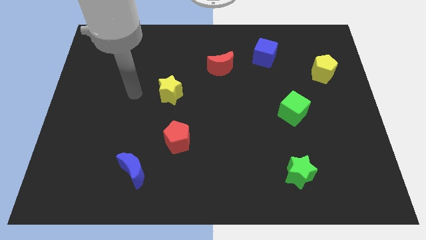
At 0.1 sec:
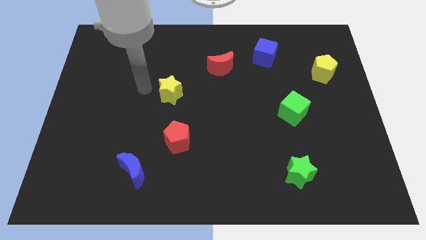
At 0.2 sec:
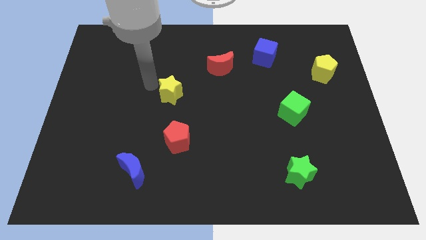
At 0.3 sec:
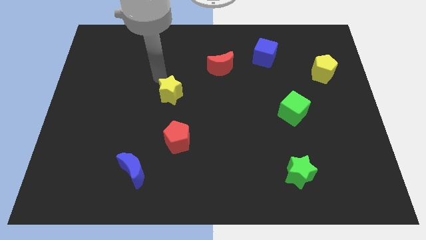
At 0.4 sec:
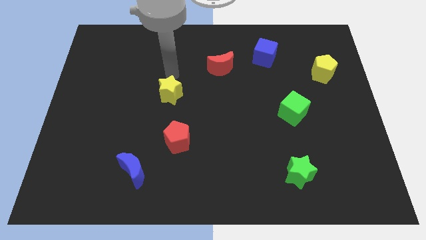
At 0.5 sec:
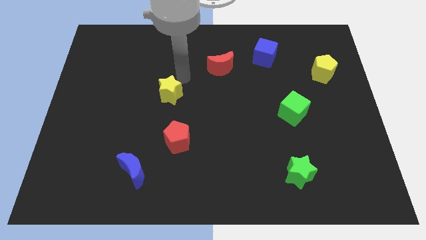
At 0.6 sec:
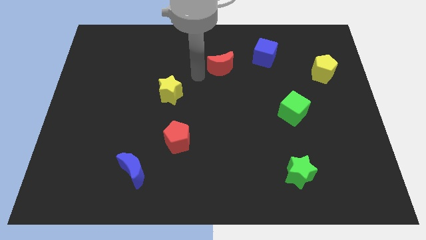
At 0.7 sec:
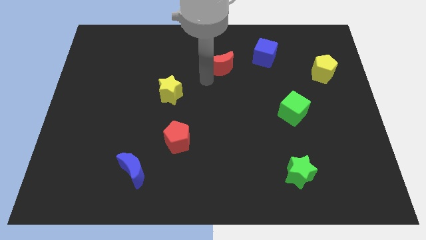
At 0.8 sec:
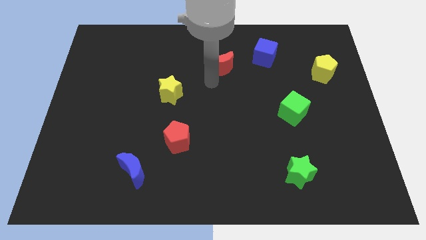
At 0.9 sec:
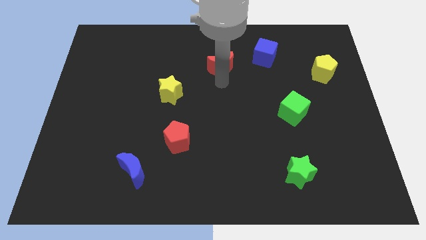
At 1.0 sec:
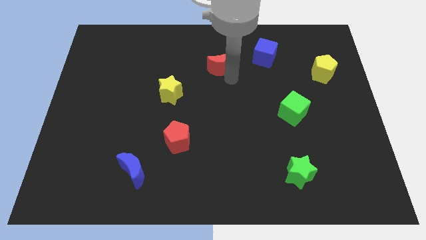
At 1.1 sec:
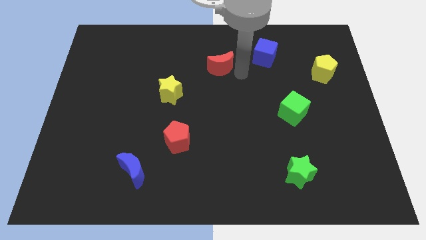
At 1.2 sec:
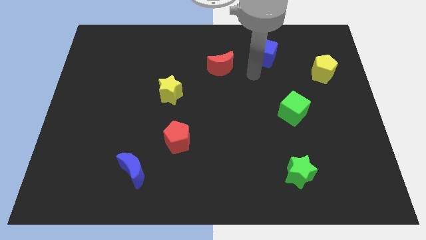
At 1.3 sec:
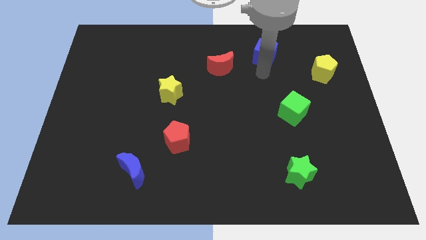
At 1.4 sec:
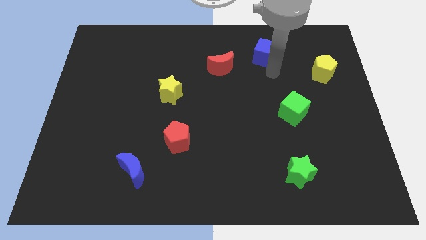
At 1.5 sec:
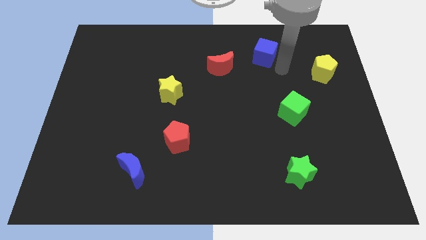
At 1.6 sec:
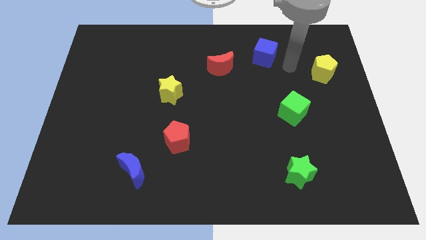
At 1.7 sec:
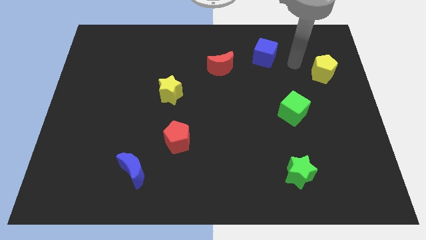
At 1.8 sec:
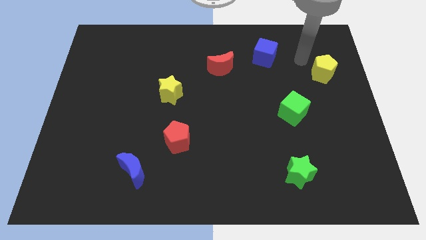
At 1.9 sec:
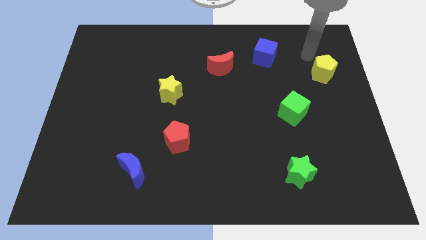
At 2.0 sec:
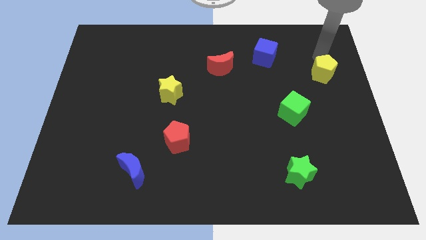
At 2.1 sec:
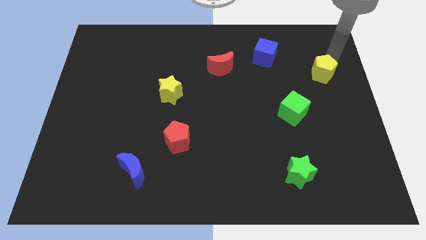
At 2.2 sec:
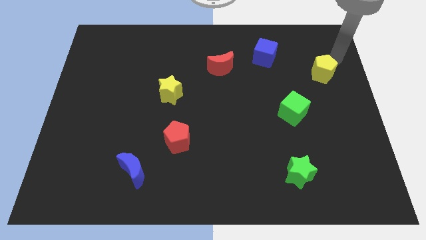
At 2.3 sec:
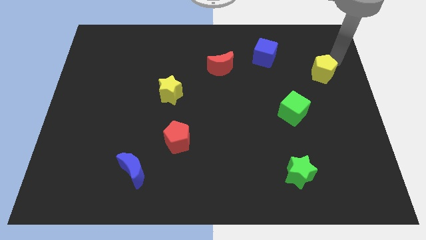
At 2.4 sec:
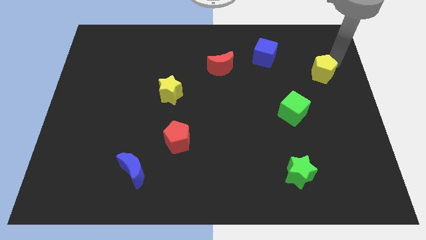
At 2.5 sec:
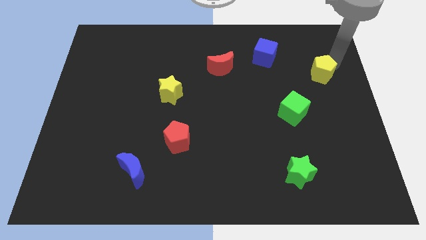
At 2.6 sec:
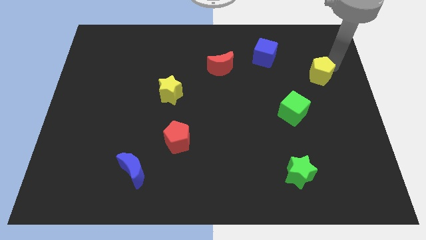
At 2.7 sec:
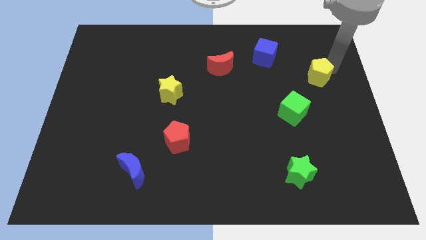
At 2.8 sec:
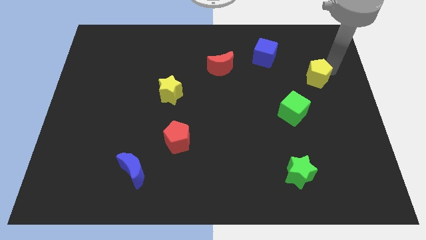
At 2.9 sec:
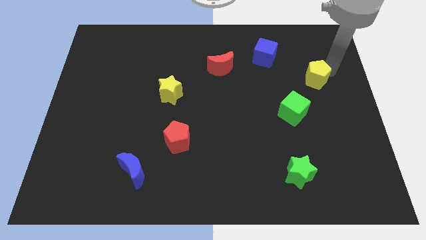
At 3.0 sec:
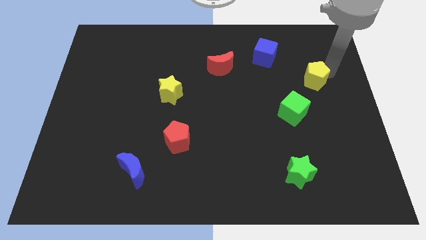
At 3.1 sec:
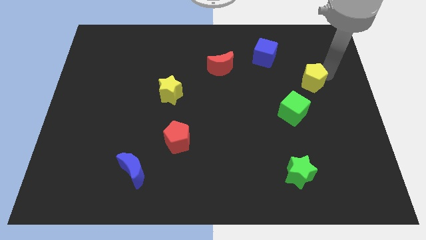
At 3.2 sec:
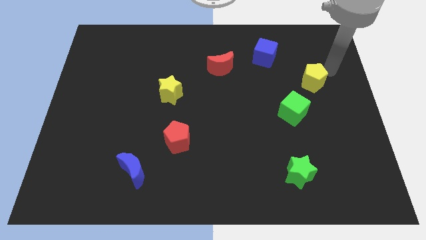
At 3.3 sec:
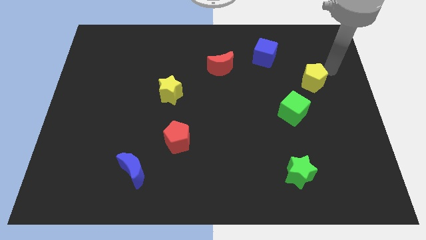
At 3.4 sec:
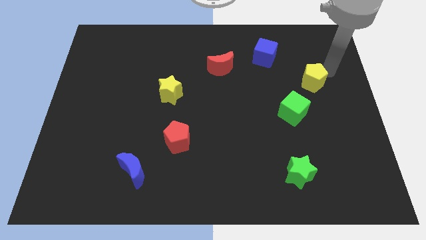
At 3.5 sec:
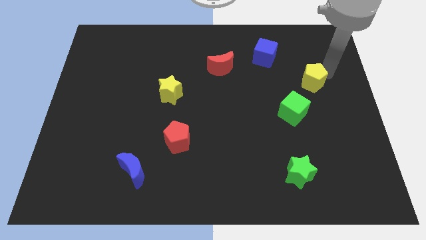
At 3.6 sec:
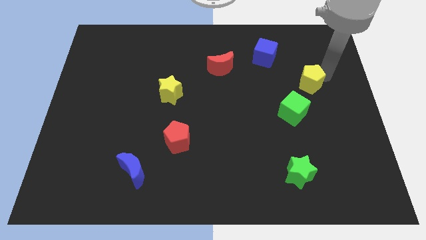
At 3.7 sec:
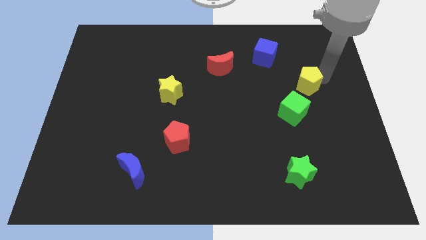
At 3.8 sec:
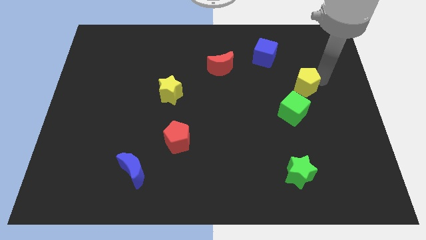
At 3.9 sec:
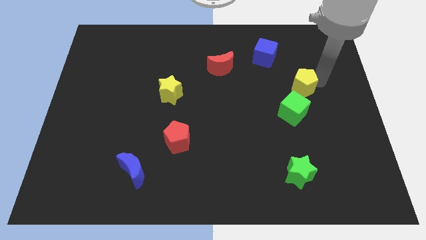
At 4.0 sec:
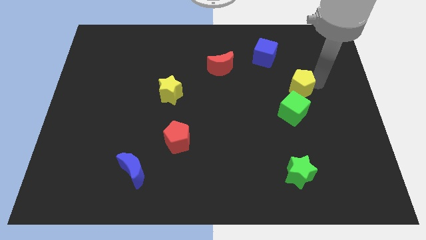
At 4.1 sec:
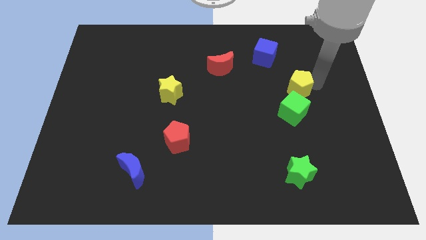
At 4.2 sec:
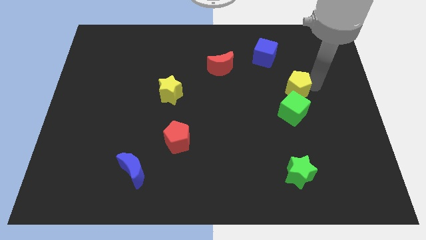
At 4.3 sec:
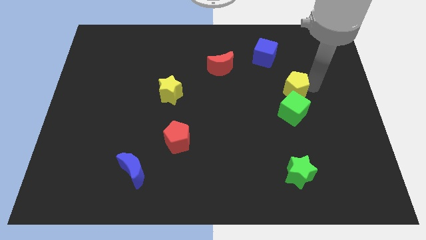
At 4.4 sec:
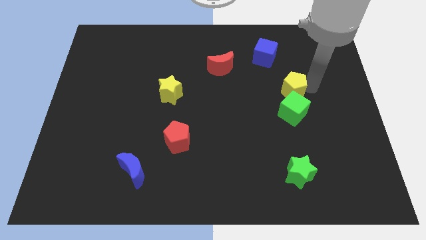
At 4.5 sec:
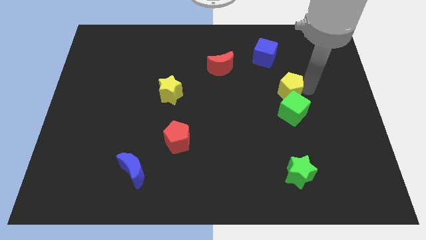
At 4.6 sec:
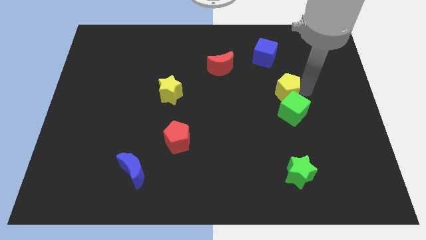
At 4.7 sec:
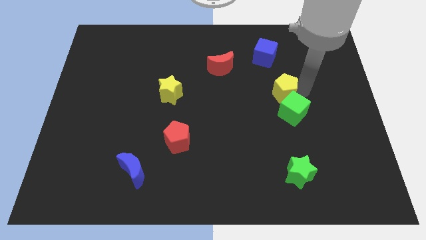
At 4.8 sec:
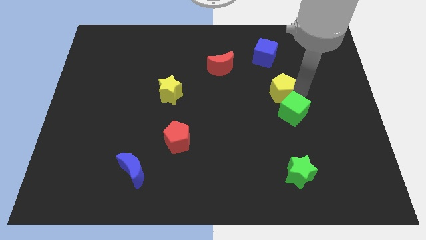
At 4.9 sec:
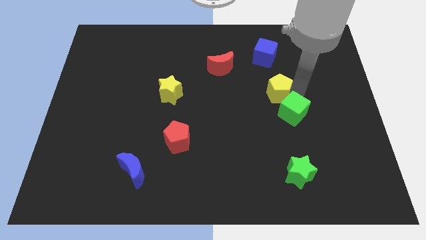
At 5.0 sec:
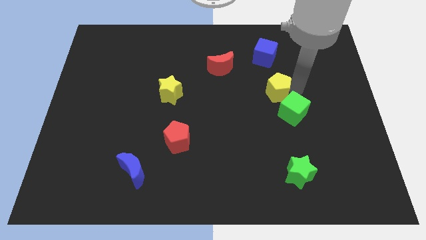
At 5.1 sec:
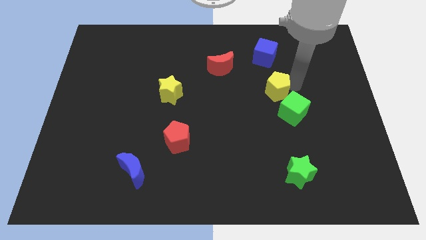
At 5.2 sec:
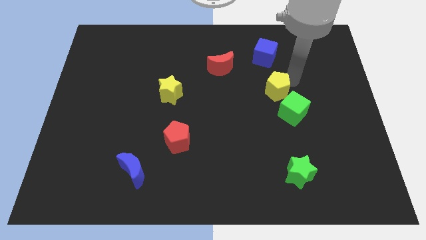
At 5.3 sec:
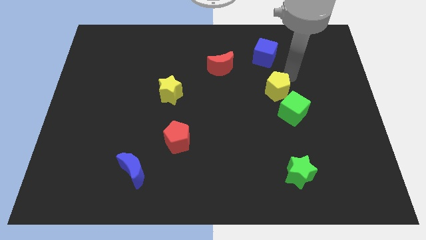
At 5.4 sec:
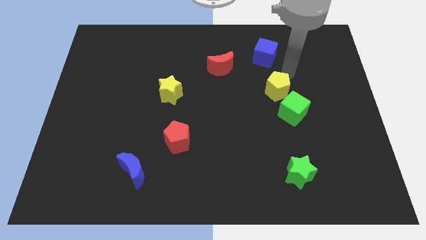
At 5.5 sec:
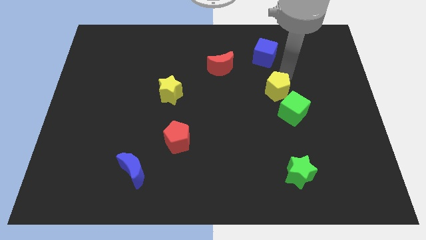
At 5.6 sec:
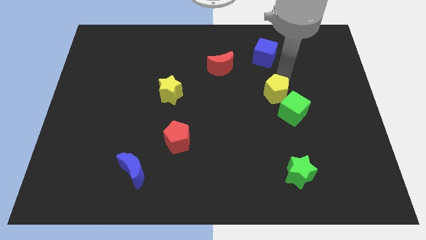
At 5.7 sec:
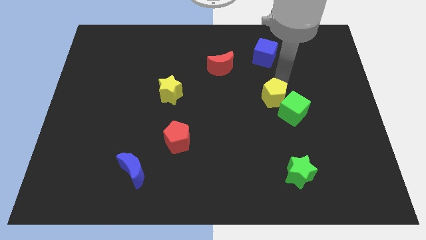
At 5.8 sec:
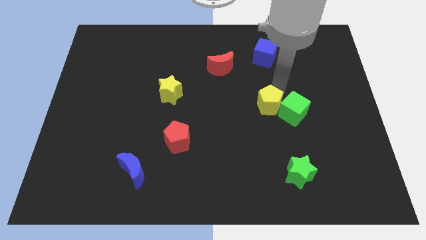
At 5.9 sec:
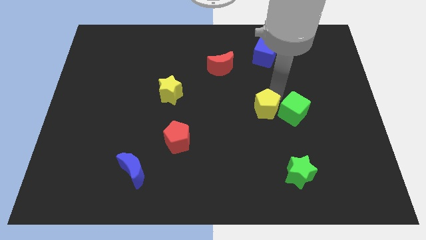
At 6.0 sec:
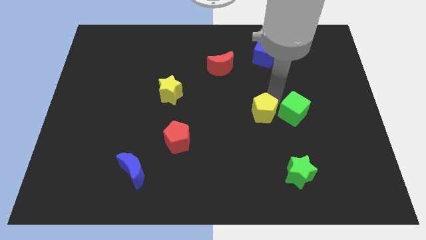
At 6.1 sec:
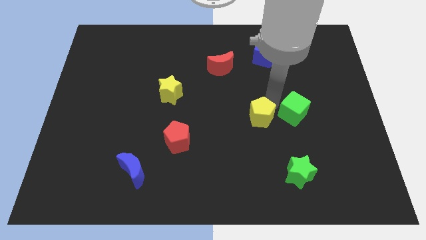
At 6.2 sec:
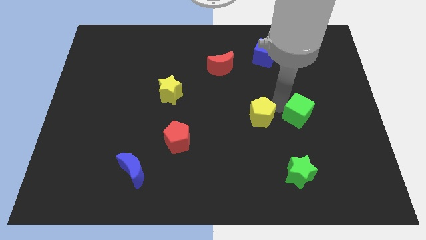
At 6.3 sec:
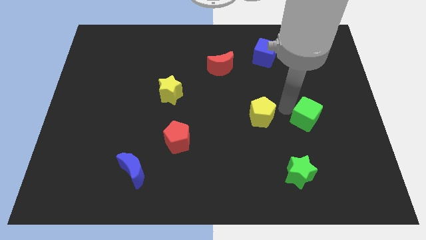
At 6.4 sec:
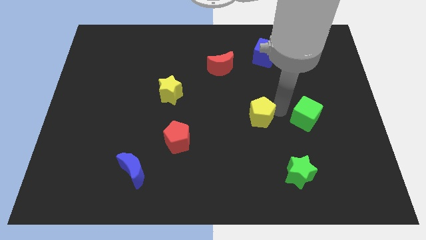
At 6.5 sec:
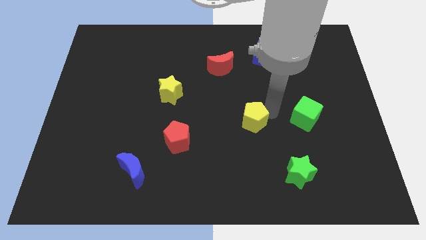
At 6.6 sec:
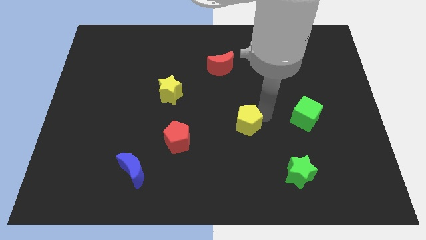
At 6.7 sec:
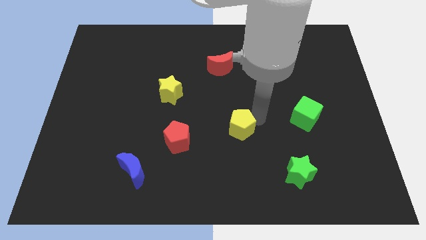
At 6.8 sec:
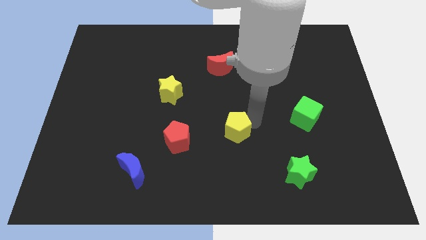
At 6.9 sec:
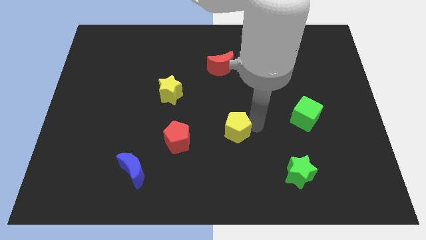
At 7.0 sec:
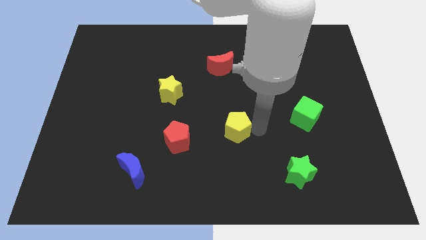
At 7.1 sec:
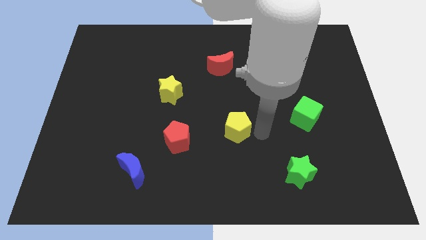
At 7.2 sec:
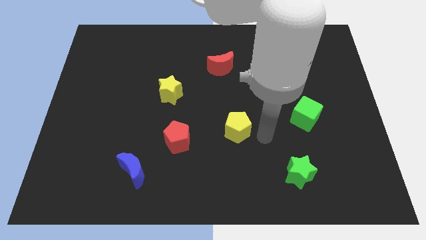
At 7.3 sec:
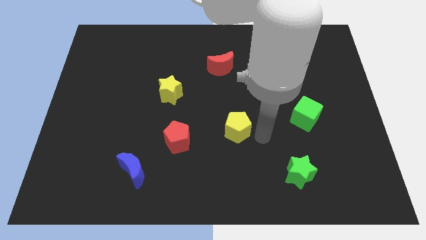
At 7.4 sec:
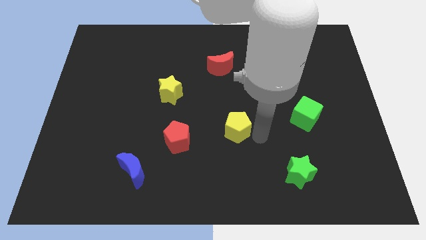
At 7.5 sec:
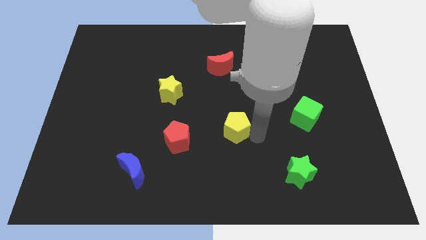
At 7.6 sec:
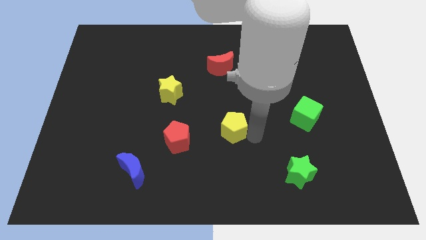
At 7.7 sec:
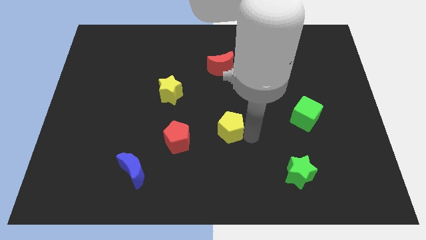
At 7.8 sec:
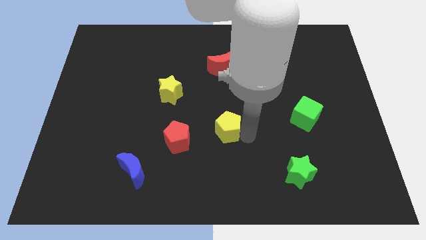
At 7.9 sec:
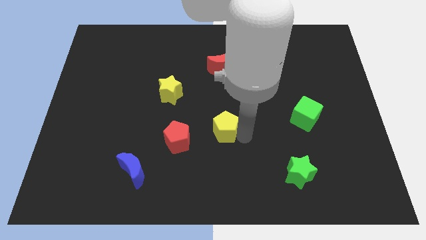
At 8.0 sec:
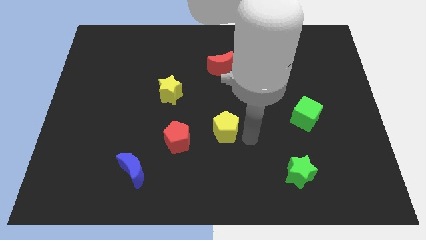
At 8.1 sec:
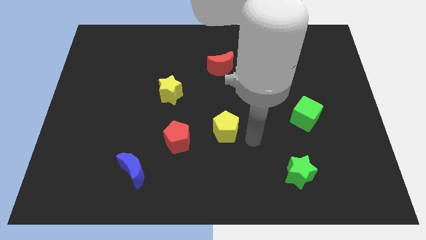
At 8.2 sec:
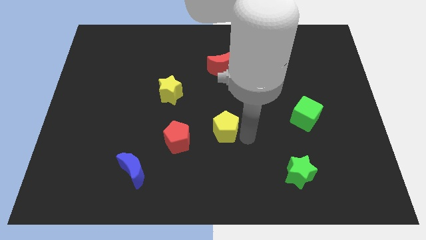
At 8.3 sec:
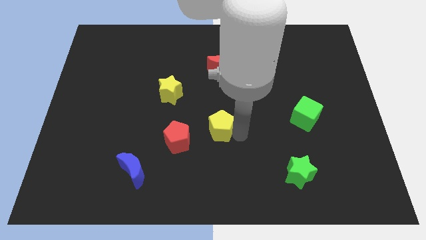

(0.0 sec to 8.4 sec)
push the yellow pentagon diagonally up and to the right of the red pentagon
